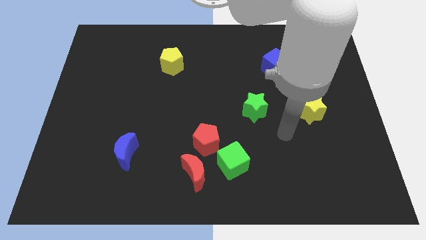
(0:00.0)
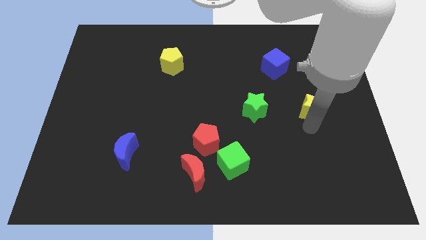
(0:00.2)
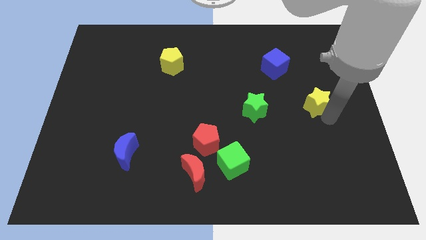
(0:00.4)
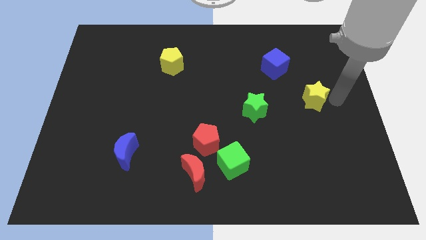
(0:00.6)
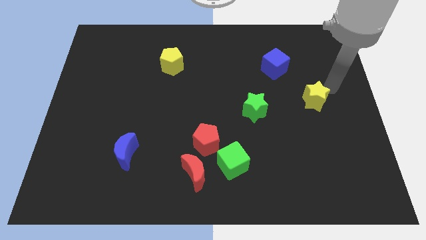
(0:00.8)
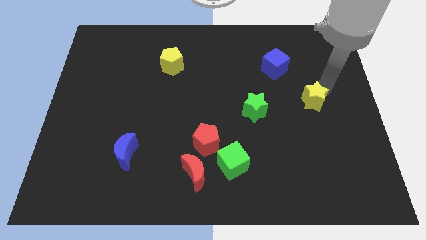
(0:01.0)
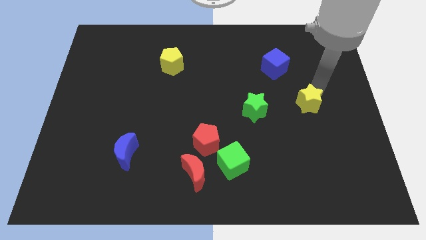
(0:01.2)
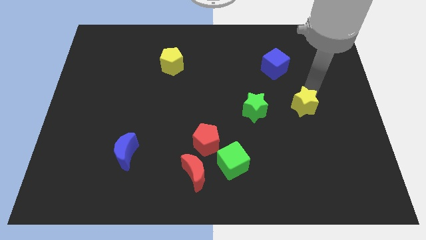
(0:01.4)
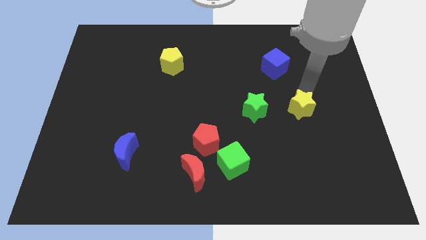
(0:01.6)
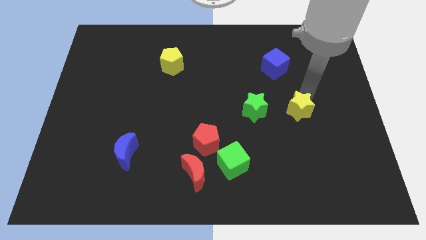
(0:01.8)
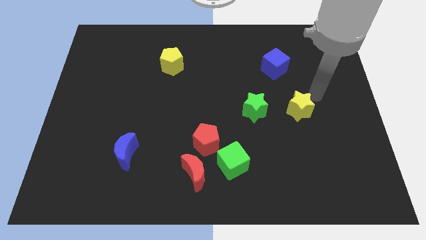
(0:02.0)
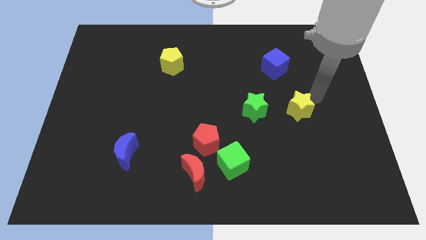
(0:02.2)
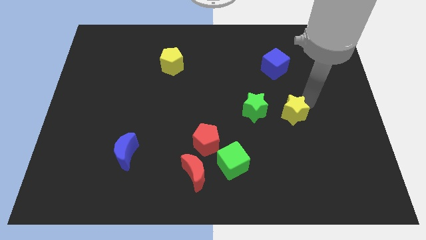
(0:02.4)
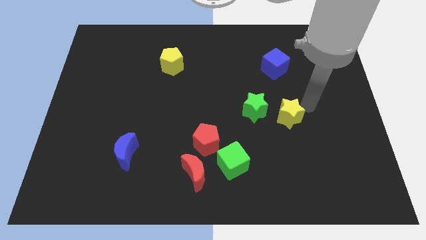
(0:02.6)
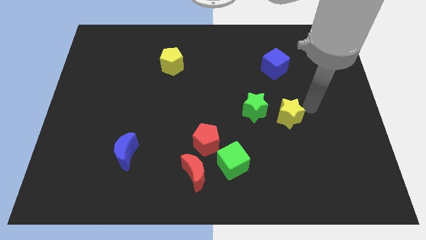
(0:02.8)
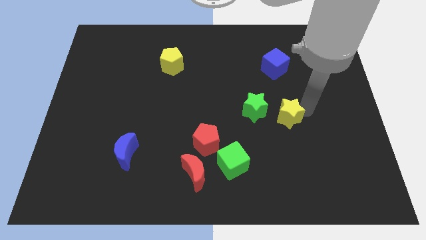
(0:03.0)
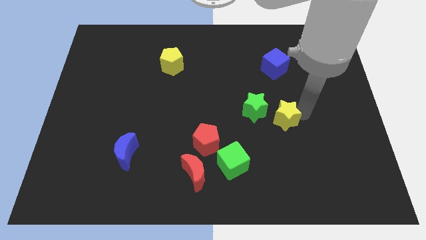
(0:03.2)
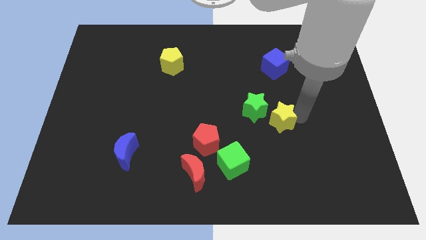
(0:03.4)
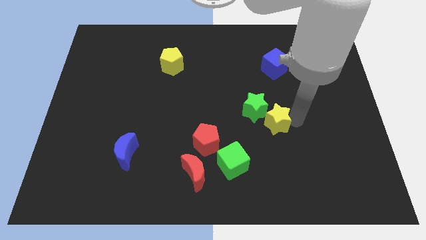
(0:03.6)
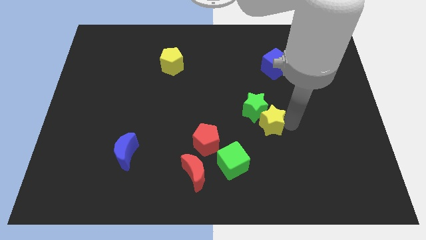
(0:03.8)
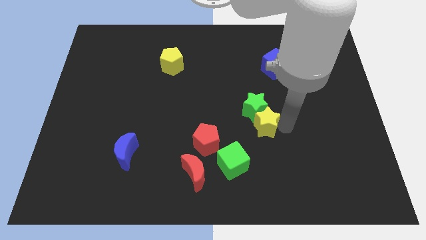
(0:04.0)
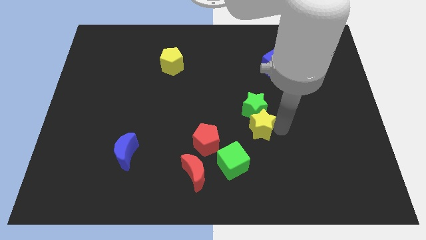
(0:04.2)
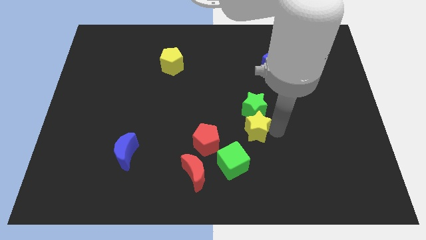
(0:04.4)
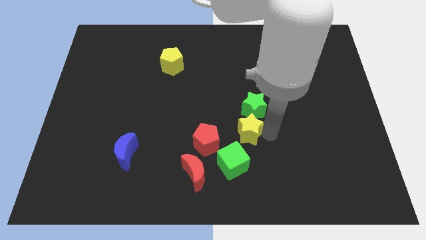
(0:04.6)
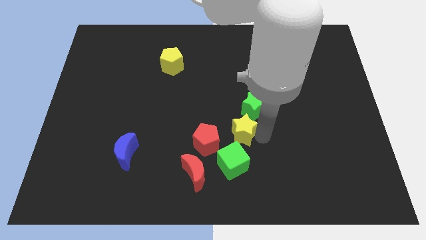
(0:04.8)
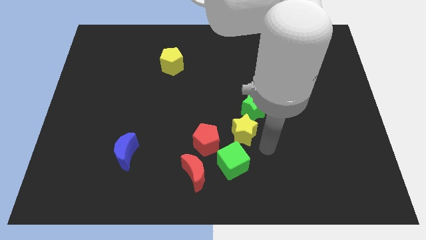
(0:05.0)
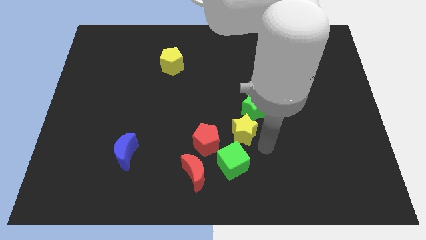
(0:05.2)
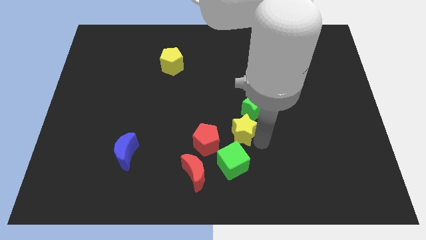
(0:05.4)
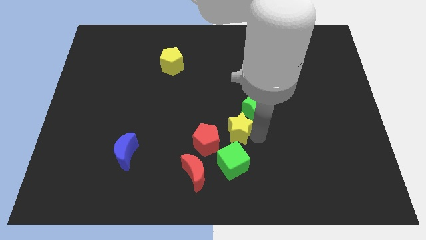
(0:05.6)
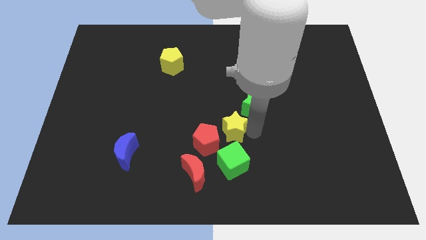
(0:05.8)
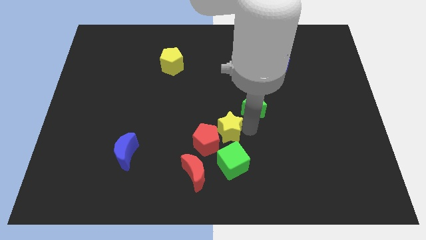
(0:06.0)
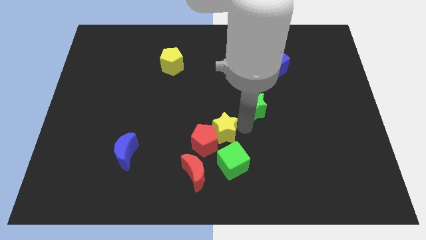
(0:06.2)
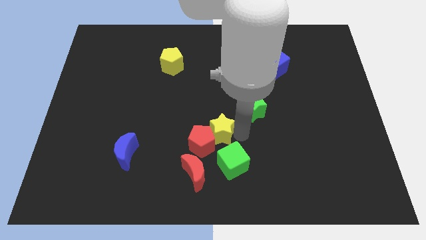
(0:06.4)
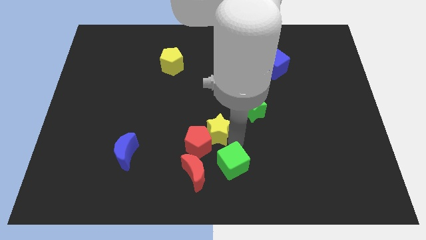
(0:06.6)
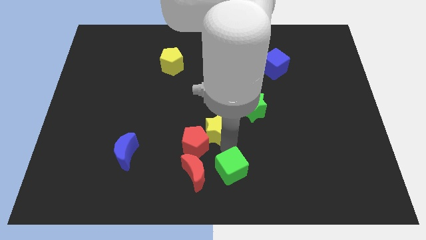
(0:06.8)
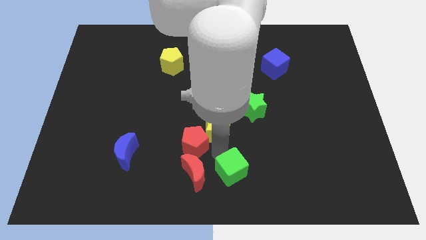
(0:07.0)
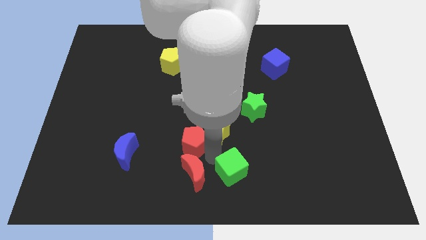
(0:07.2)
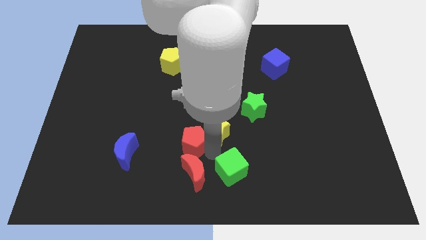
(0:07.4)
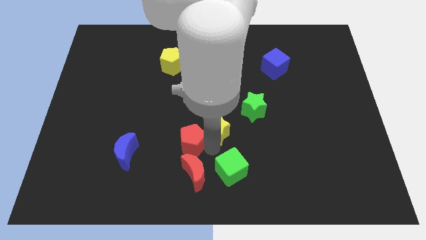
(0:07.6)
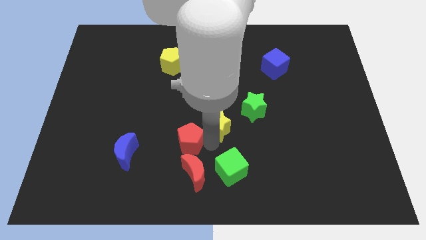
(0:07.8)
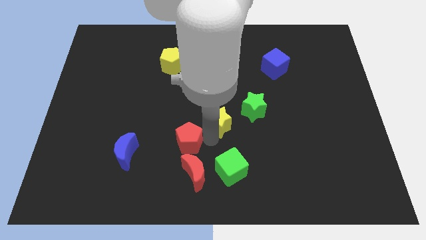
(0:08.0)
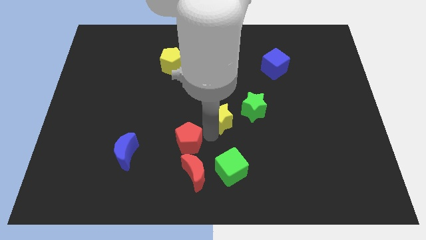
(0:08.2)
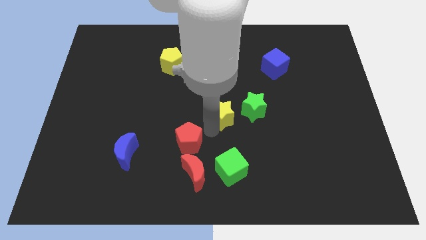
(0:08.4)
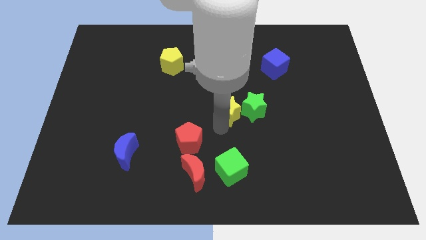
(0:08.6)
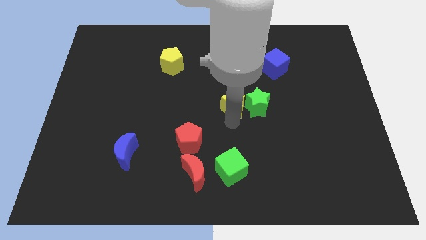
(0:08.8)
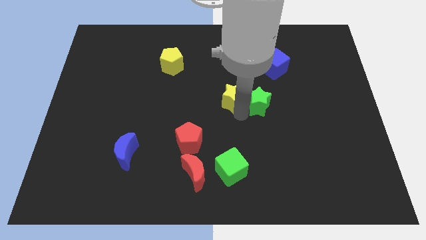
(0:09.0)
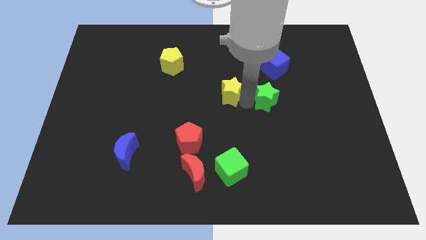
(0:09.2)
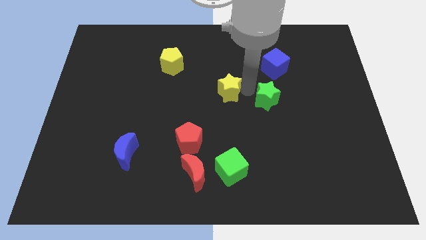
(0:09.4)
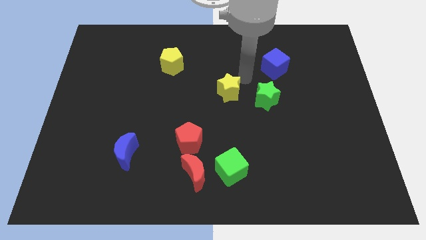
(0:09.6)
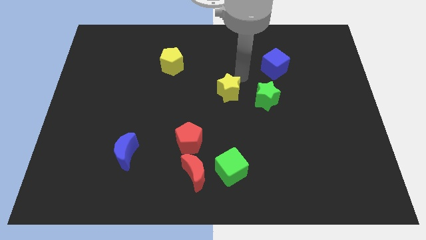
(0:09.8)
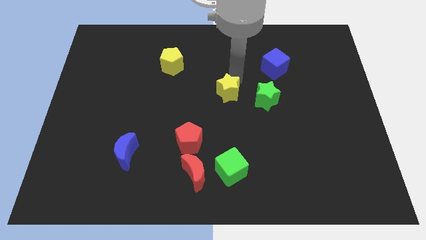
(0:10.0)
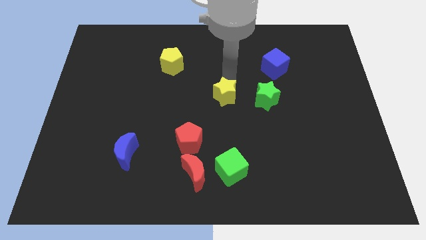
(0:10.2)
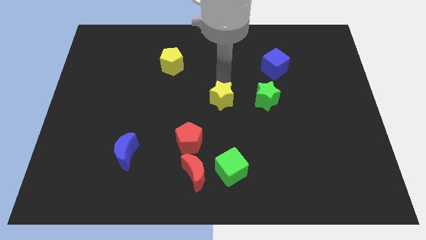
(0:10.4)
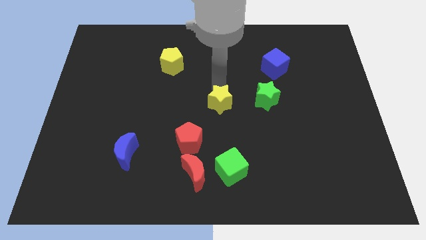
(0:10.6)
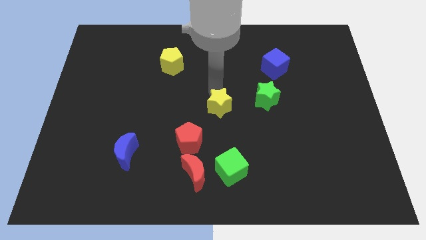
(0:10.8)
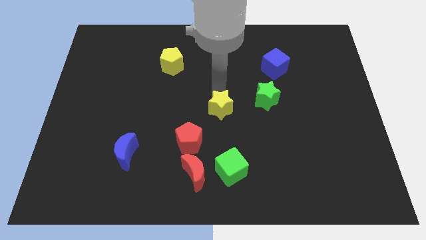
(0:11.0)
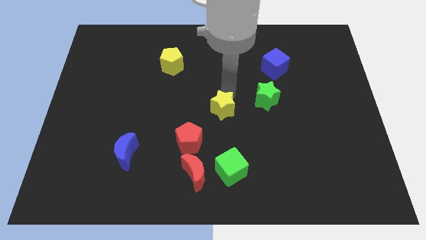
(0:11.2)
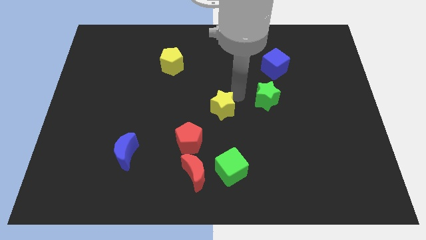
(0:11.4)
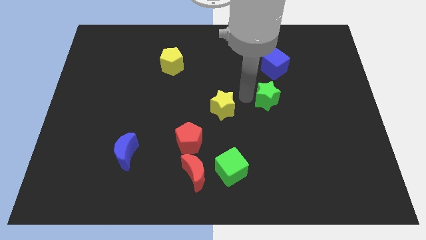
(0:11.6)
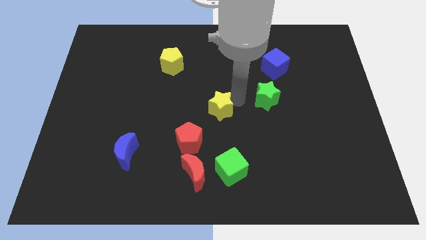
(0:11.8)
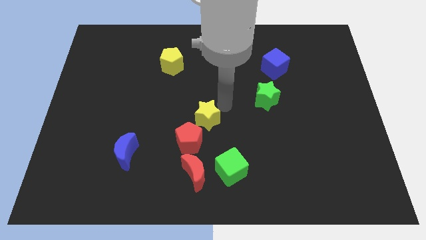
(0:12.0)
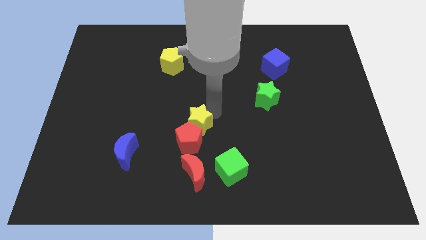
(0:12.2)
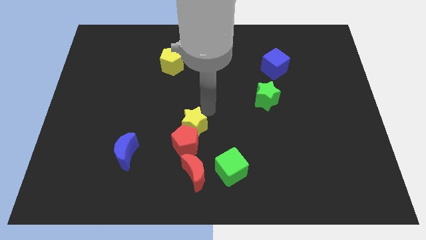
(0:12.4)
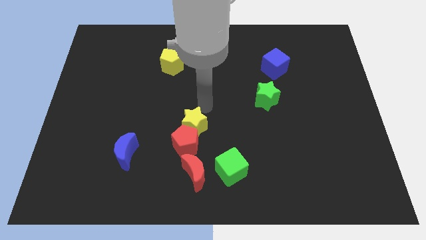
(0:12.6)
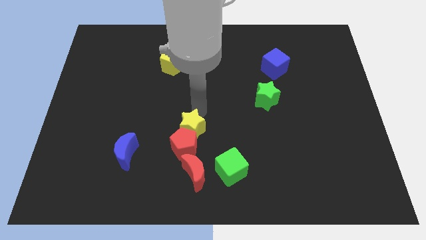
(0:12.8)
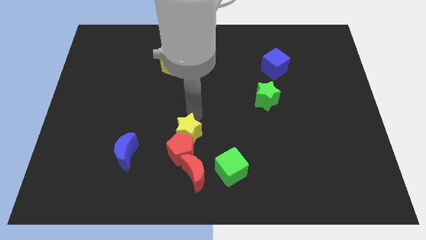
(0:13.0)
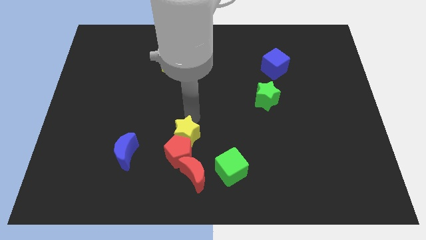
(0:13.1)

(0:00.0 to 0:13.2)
move the yellow star right of the blue moon

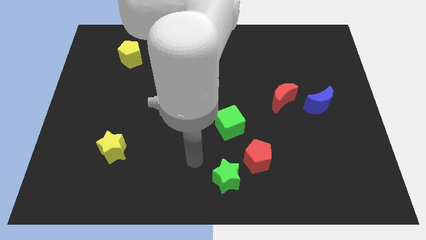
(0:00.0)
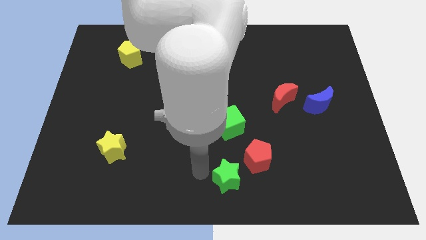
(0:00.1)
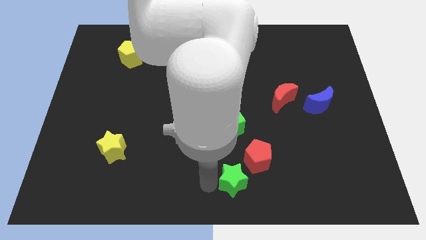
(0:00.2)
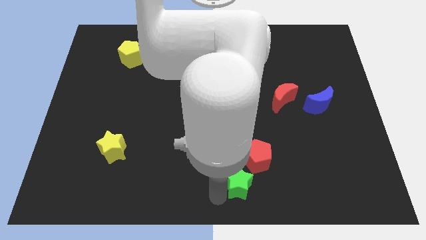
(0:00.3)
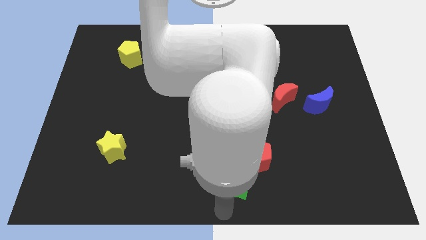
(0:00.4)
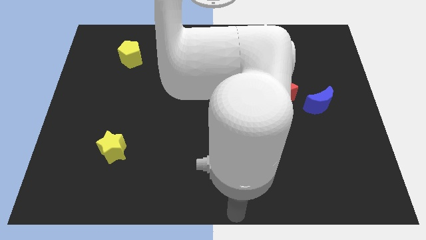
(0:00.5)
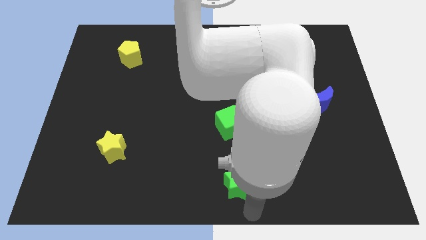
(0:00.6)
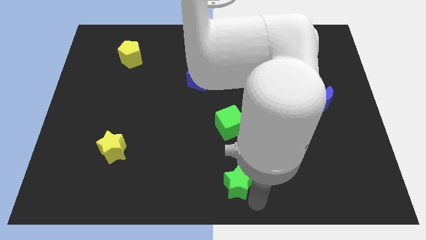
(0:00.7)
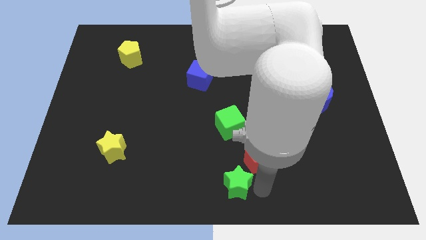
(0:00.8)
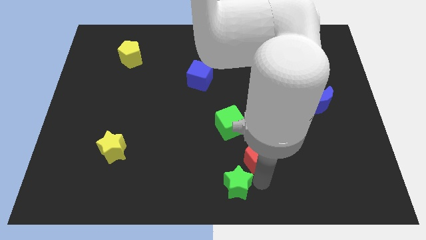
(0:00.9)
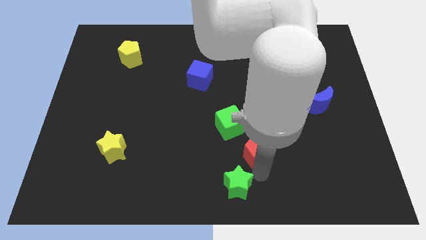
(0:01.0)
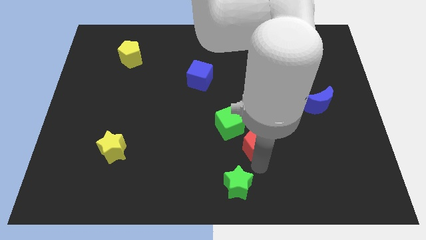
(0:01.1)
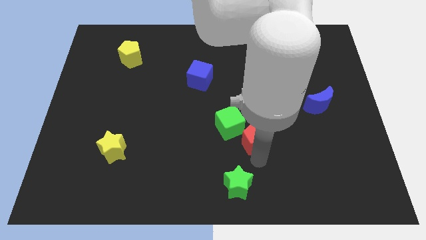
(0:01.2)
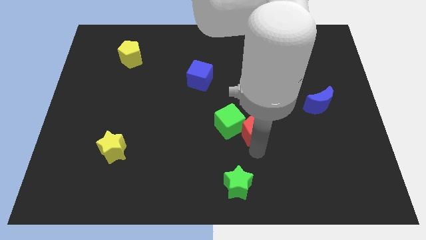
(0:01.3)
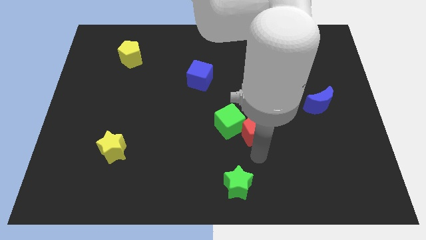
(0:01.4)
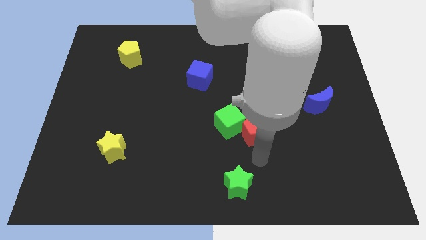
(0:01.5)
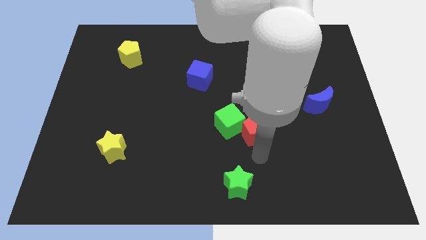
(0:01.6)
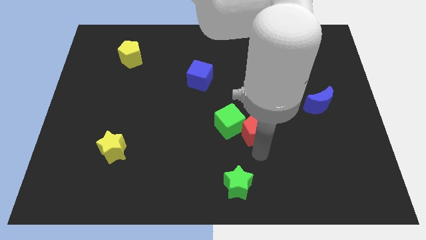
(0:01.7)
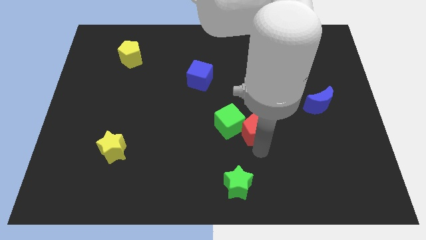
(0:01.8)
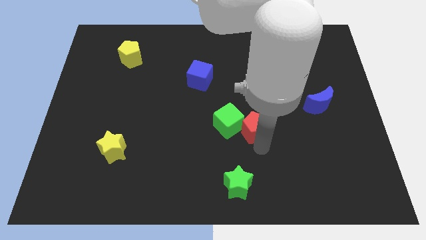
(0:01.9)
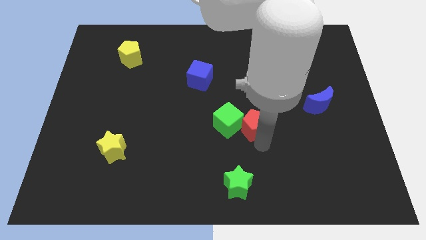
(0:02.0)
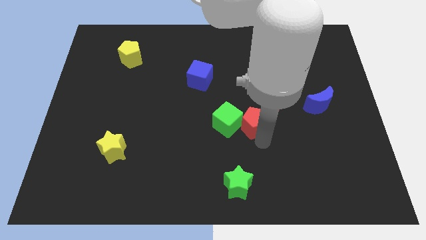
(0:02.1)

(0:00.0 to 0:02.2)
put the red pentagon to the top right of the green cube
